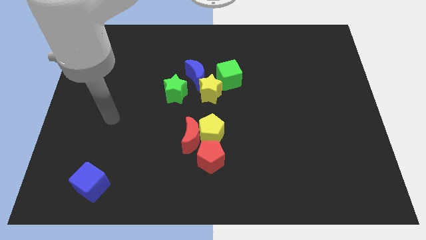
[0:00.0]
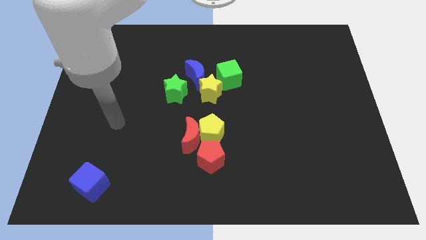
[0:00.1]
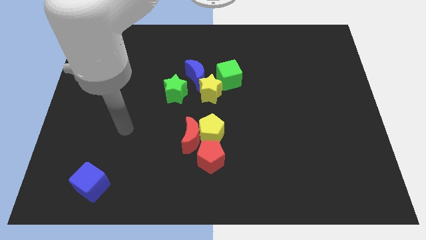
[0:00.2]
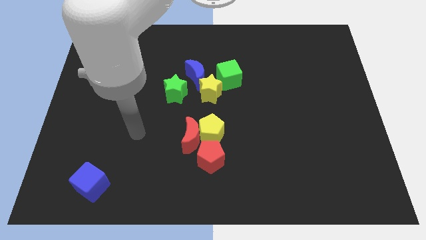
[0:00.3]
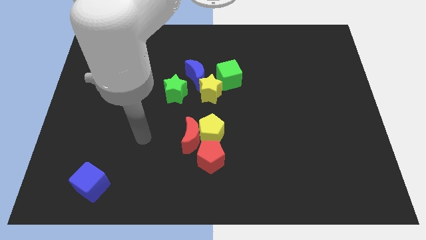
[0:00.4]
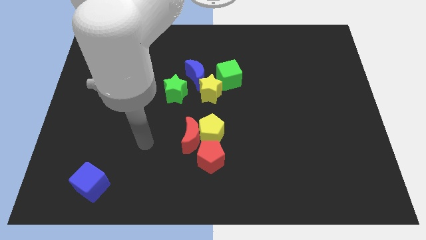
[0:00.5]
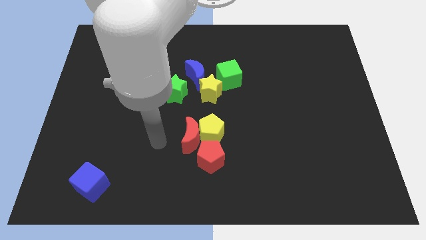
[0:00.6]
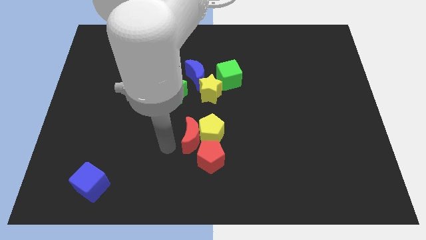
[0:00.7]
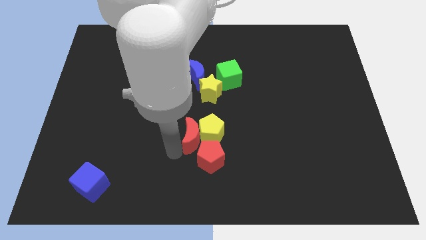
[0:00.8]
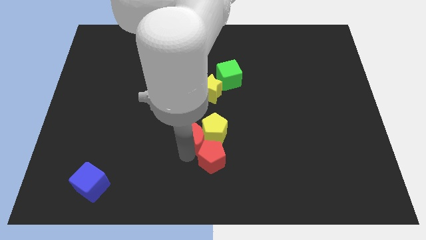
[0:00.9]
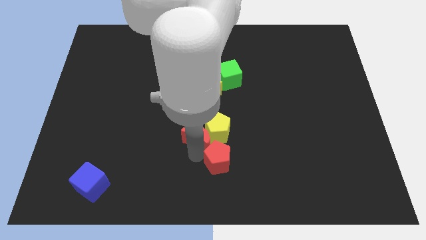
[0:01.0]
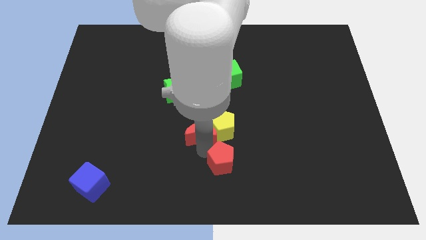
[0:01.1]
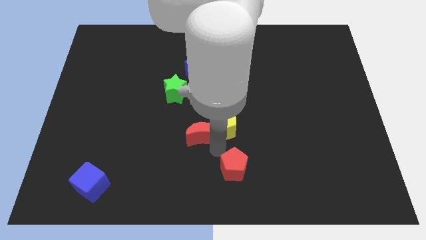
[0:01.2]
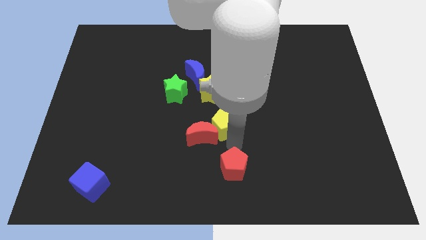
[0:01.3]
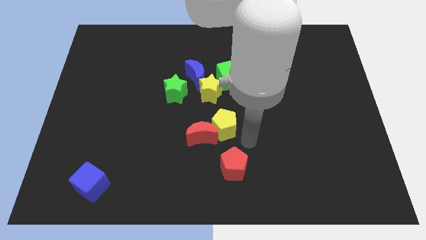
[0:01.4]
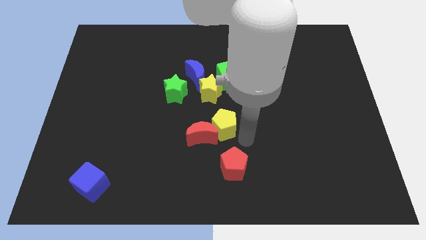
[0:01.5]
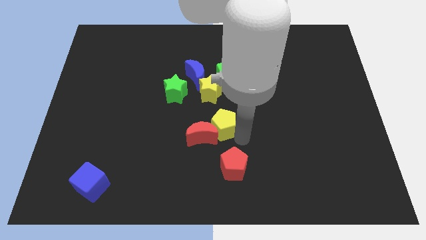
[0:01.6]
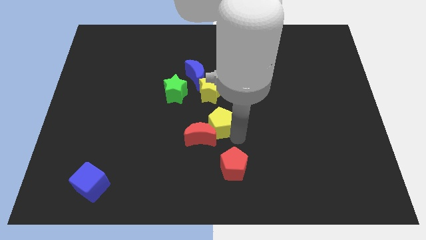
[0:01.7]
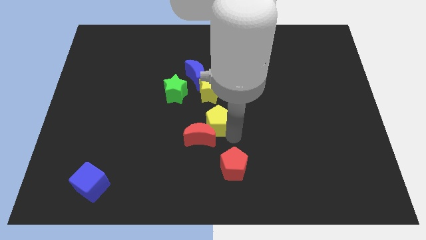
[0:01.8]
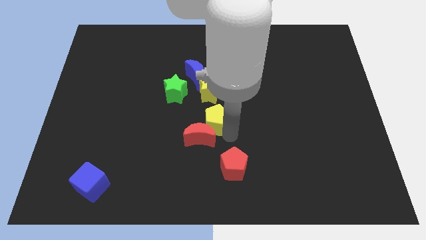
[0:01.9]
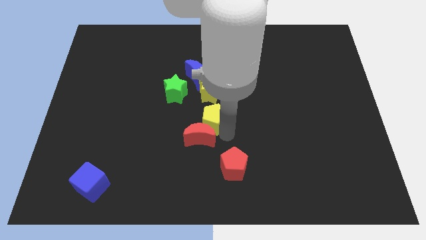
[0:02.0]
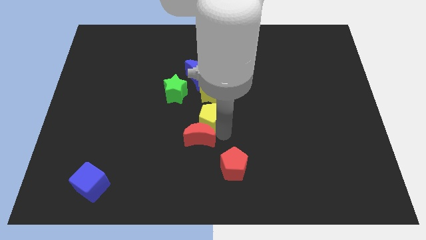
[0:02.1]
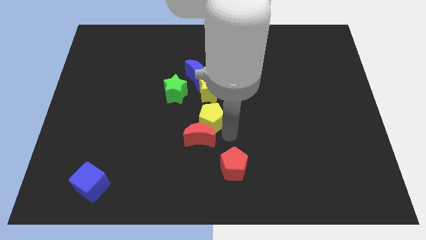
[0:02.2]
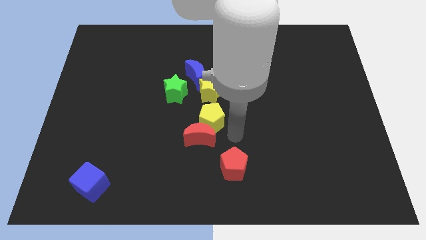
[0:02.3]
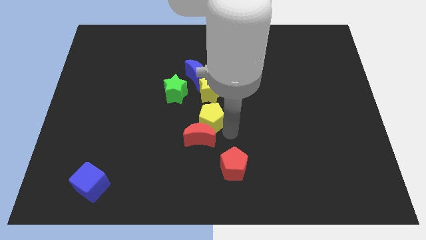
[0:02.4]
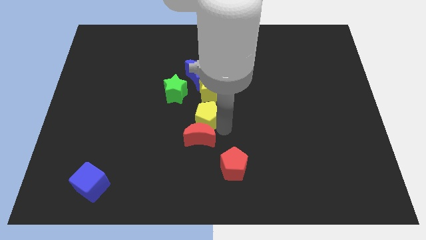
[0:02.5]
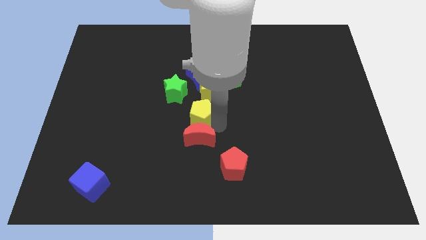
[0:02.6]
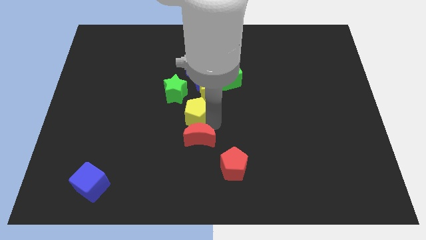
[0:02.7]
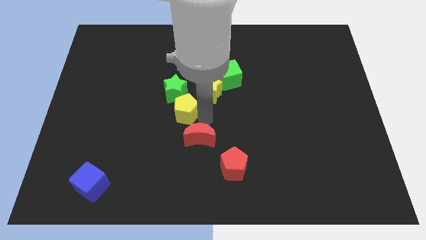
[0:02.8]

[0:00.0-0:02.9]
push the yellow pentagon a little bit upwards and left

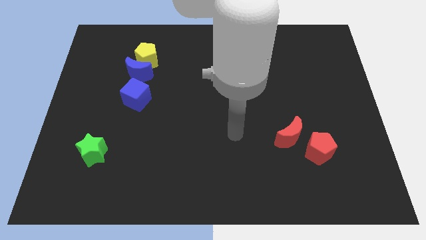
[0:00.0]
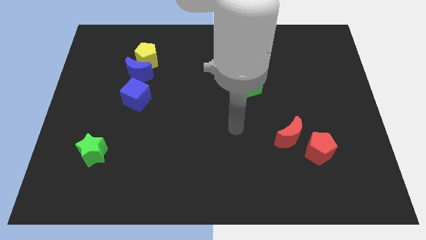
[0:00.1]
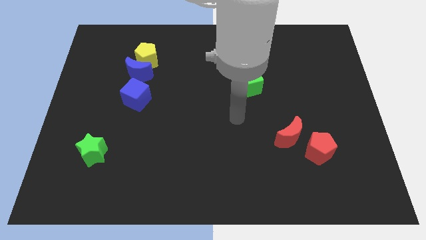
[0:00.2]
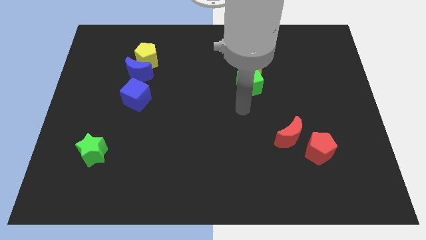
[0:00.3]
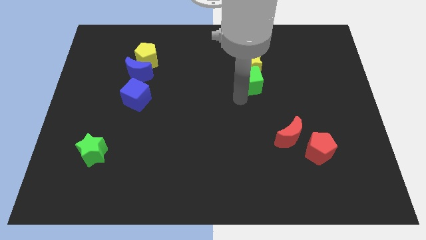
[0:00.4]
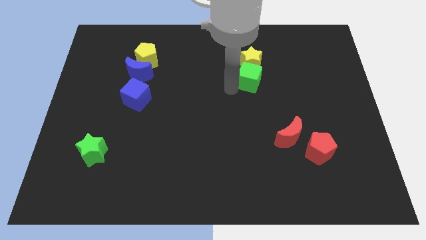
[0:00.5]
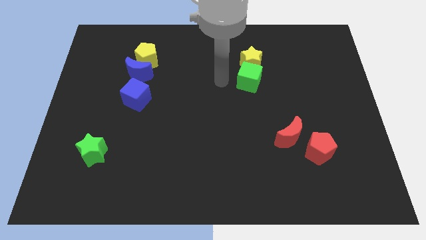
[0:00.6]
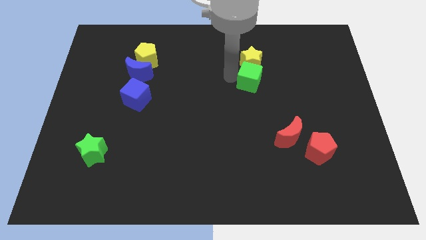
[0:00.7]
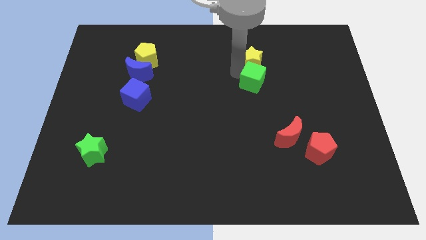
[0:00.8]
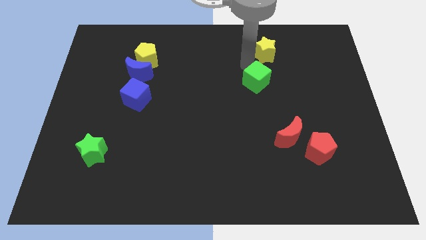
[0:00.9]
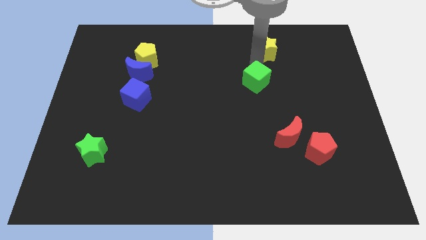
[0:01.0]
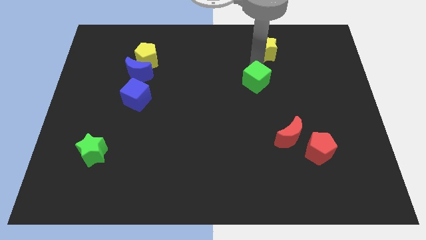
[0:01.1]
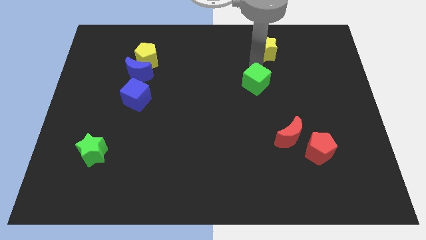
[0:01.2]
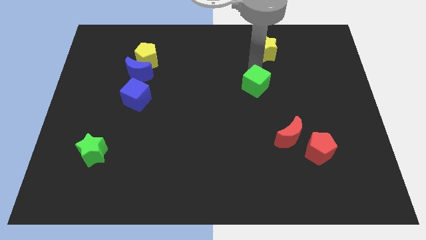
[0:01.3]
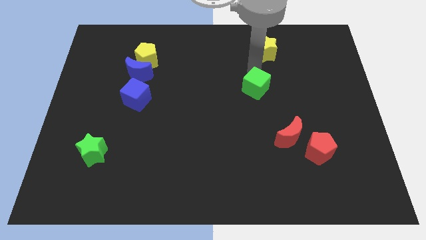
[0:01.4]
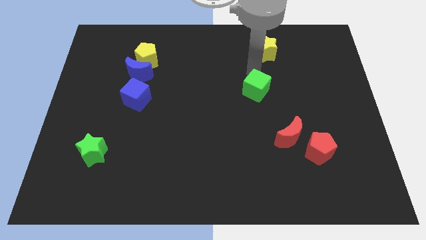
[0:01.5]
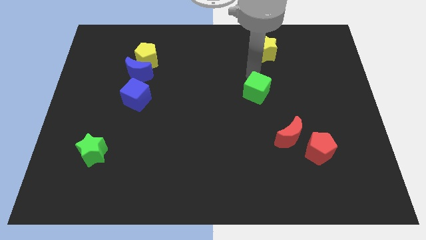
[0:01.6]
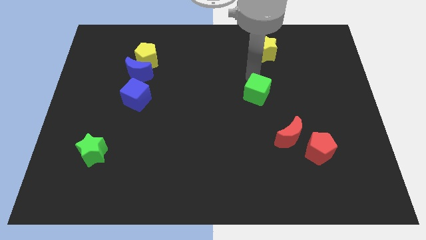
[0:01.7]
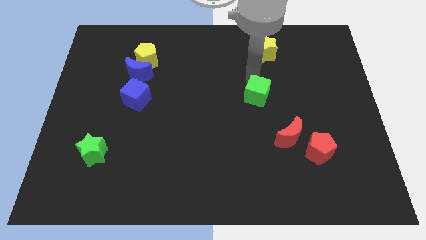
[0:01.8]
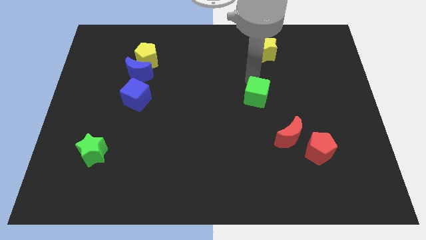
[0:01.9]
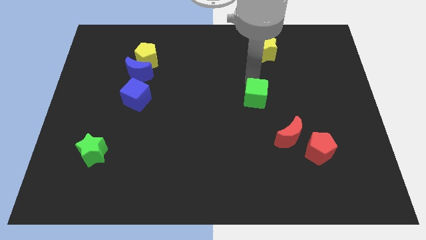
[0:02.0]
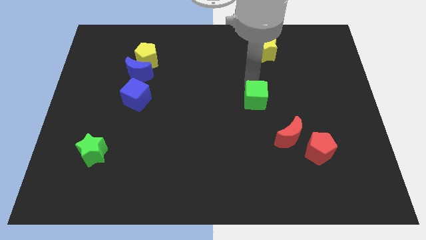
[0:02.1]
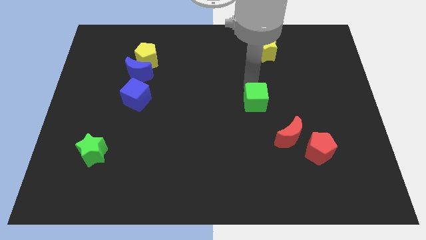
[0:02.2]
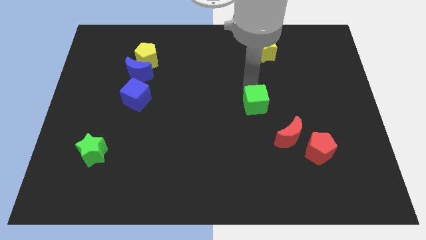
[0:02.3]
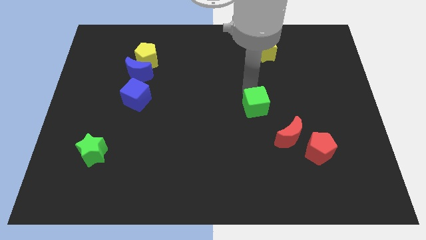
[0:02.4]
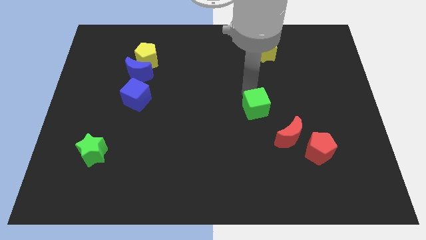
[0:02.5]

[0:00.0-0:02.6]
slightly push the green cube down

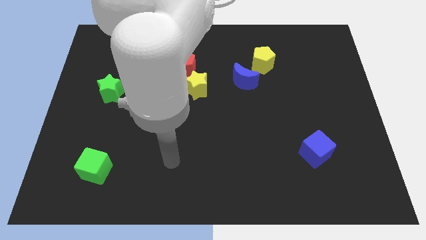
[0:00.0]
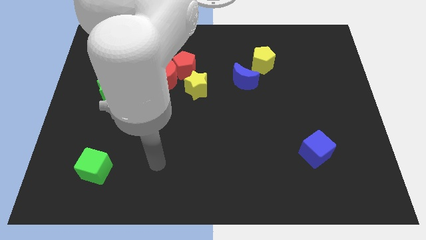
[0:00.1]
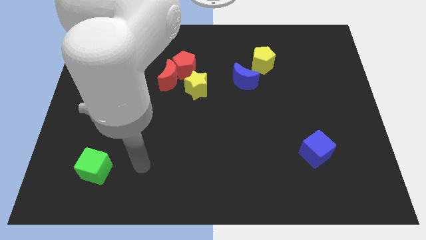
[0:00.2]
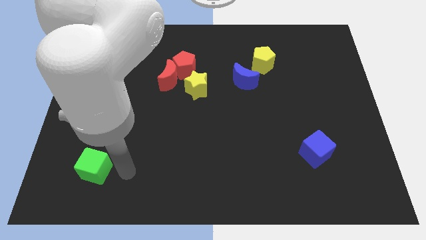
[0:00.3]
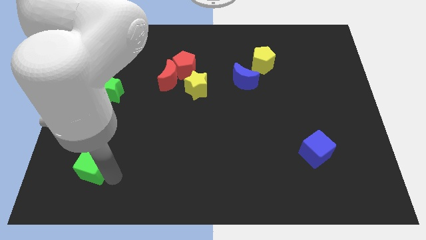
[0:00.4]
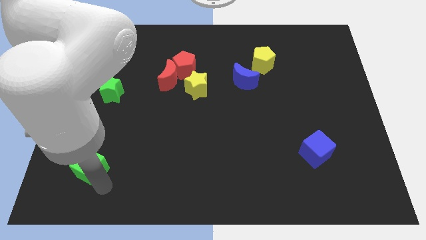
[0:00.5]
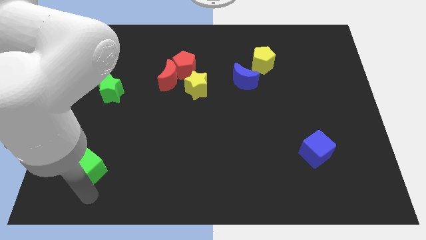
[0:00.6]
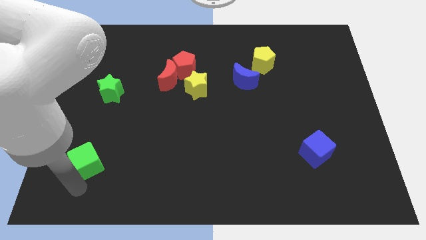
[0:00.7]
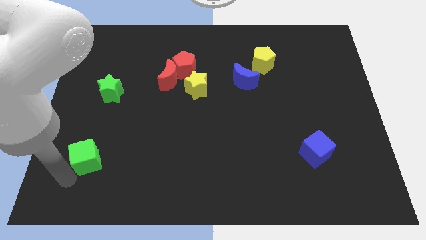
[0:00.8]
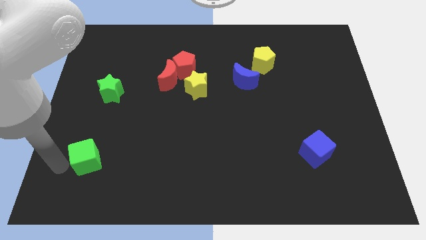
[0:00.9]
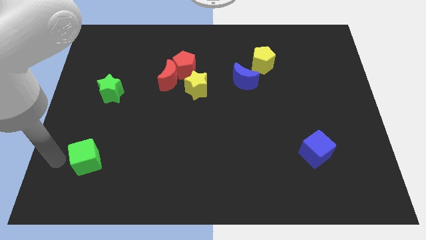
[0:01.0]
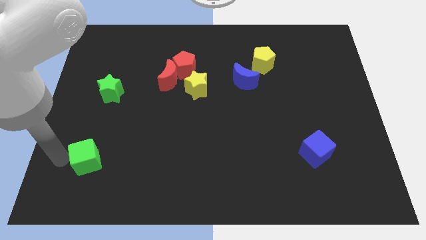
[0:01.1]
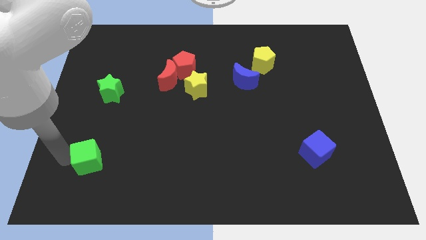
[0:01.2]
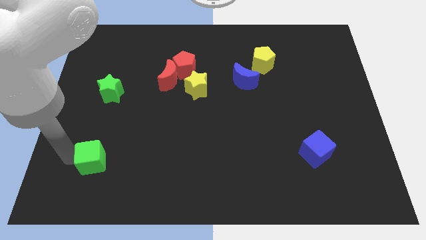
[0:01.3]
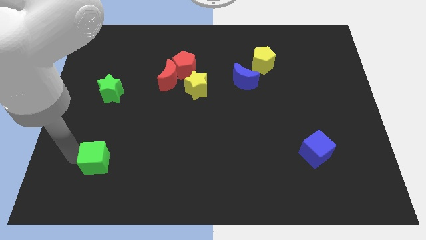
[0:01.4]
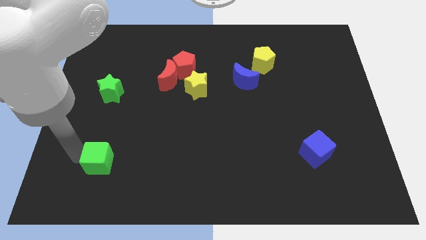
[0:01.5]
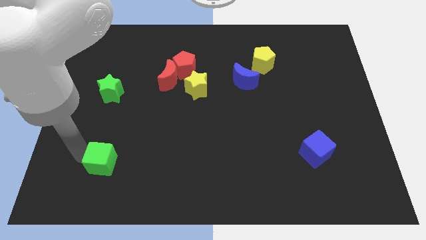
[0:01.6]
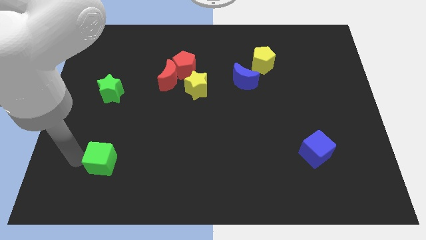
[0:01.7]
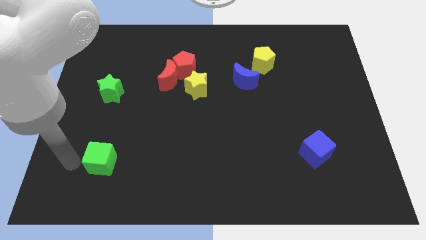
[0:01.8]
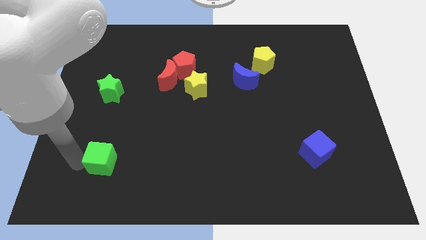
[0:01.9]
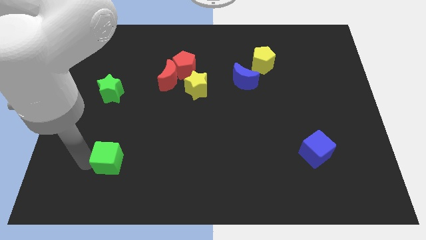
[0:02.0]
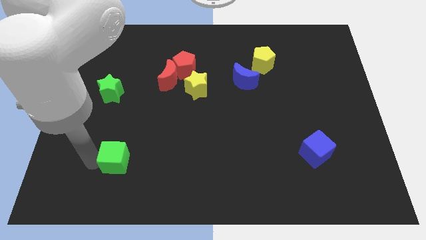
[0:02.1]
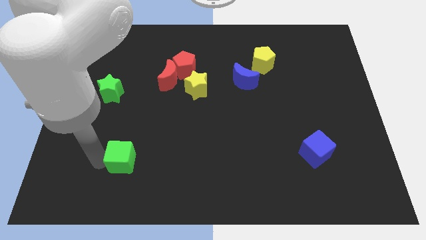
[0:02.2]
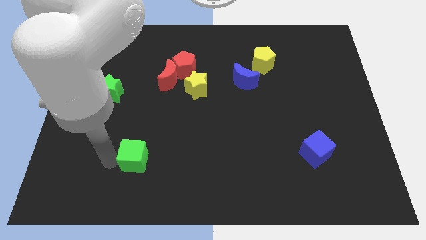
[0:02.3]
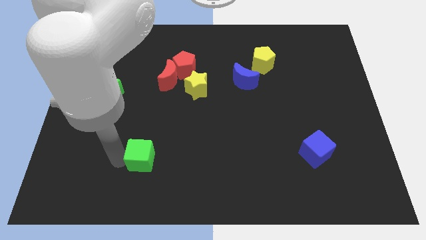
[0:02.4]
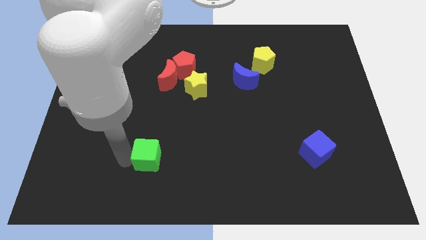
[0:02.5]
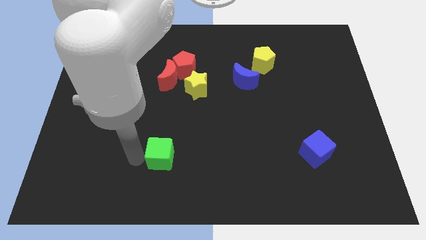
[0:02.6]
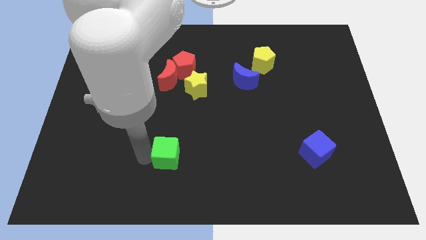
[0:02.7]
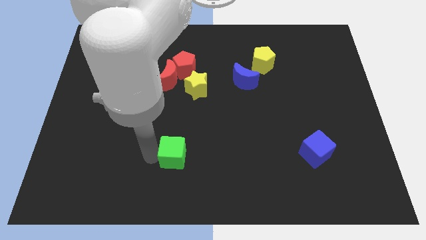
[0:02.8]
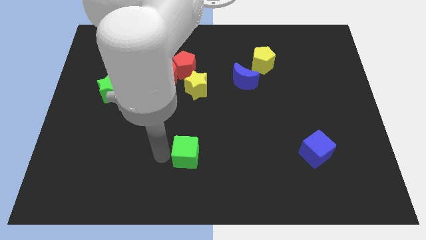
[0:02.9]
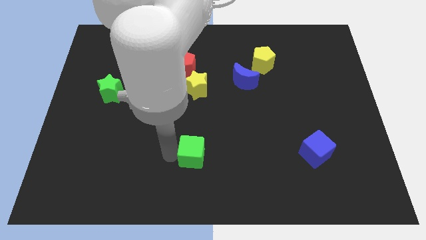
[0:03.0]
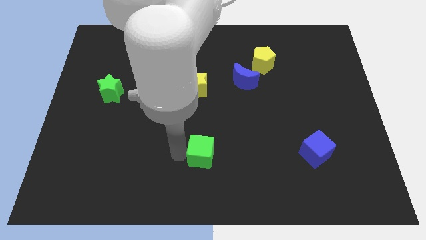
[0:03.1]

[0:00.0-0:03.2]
push the green cube right
